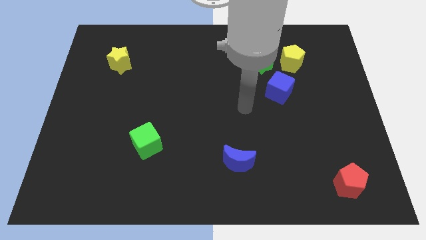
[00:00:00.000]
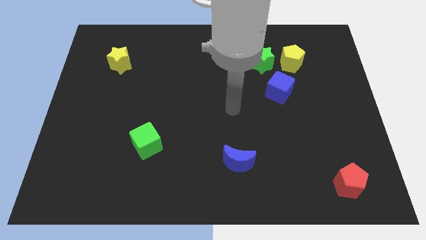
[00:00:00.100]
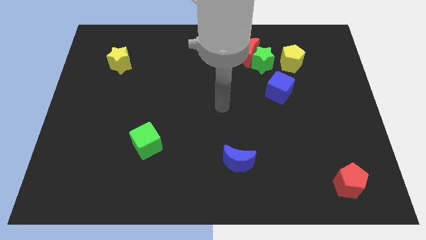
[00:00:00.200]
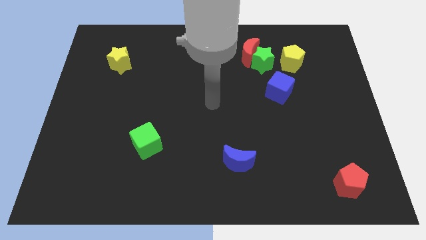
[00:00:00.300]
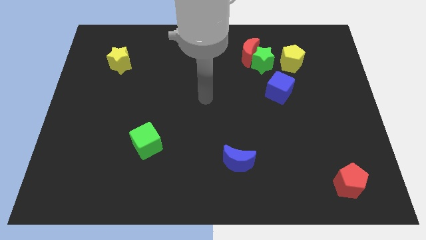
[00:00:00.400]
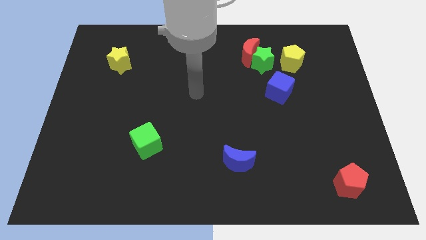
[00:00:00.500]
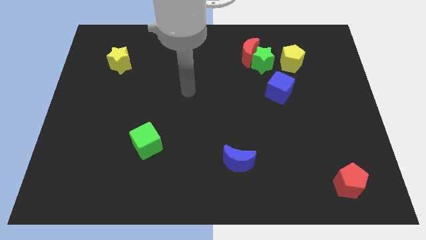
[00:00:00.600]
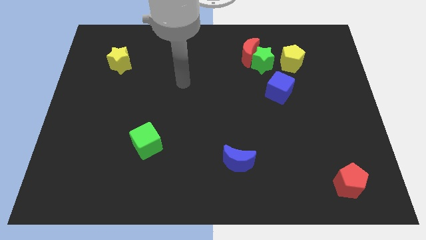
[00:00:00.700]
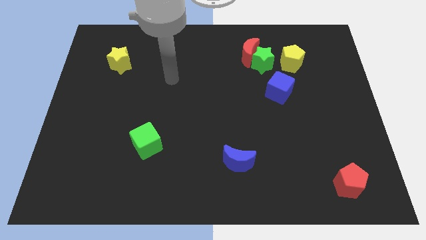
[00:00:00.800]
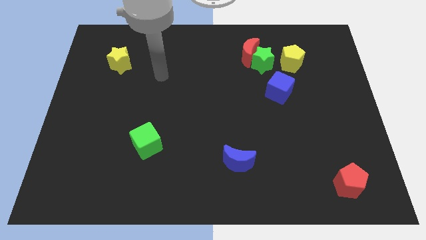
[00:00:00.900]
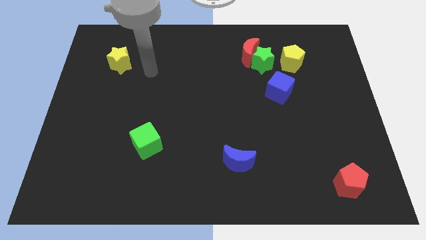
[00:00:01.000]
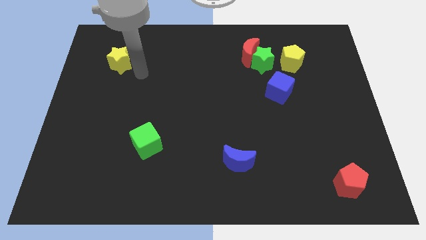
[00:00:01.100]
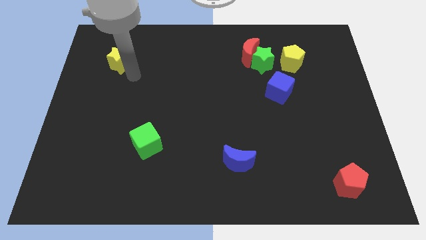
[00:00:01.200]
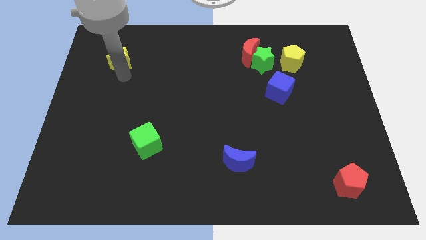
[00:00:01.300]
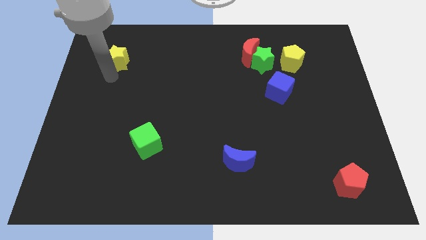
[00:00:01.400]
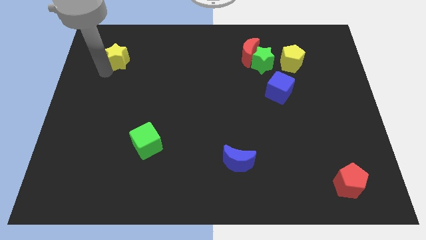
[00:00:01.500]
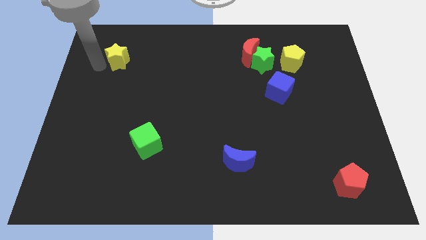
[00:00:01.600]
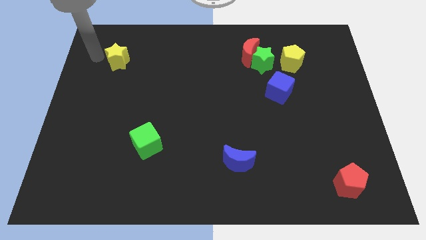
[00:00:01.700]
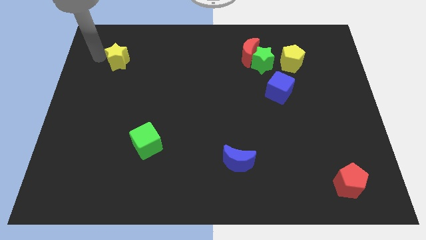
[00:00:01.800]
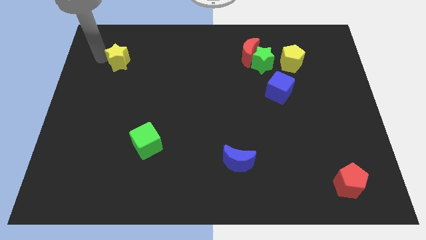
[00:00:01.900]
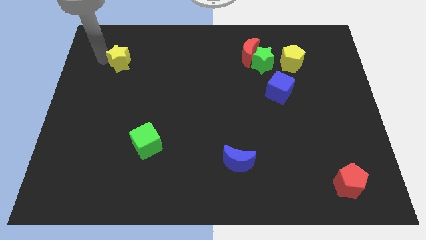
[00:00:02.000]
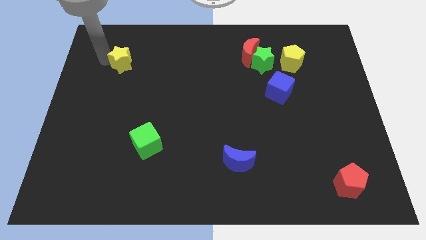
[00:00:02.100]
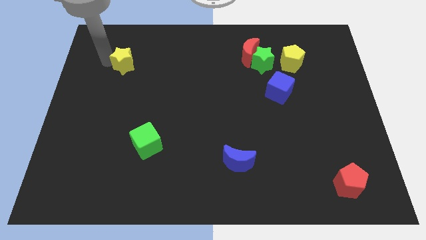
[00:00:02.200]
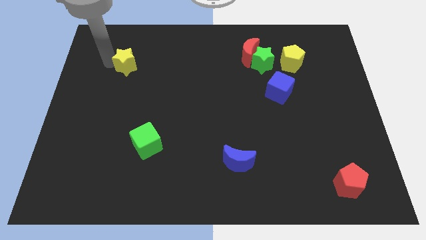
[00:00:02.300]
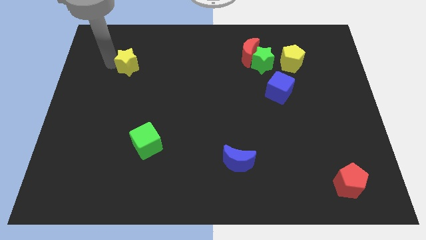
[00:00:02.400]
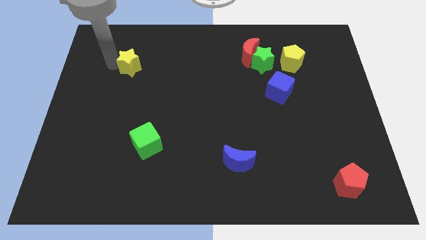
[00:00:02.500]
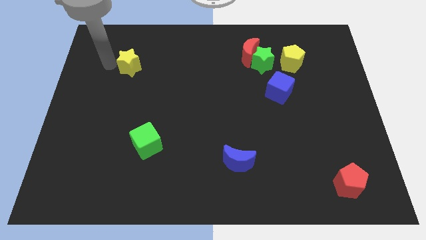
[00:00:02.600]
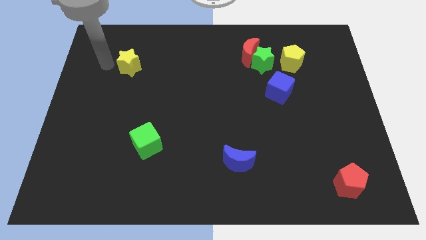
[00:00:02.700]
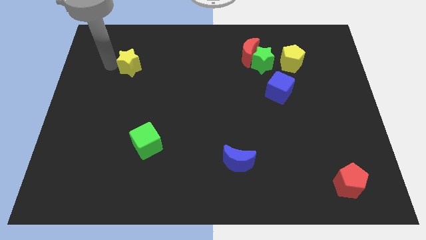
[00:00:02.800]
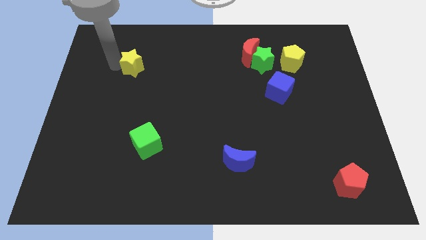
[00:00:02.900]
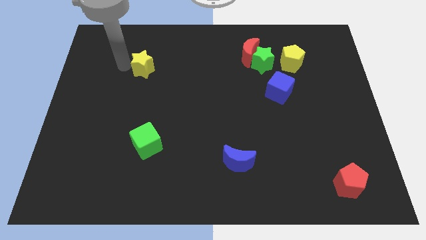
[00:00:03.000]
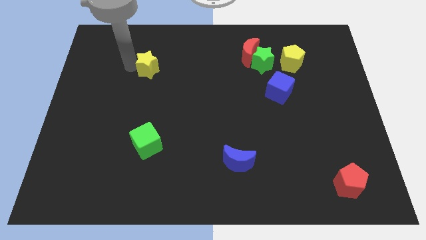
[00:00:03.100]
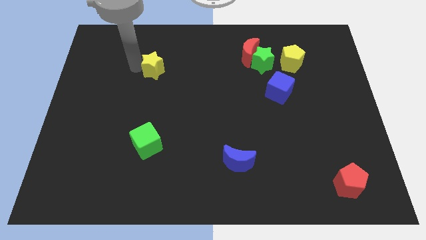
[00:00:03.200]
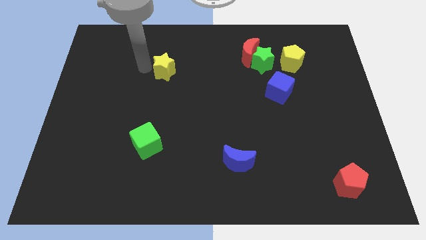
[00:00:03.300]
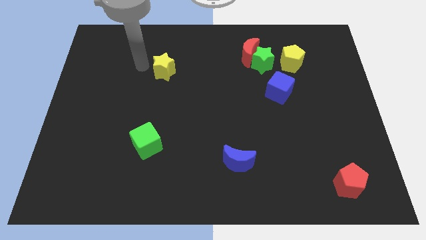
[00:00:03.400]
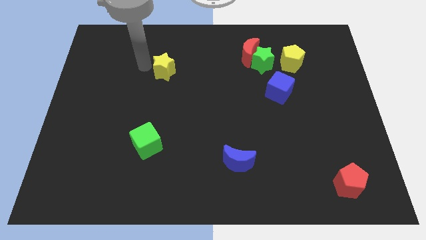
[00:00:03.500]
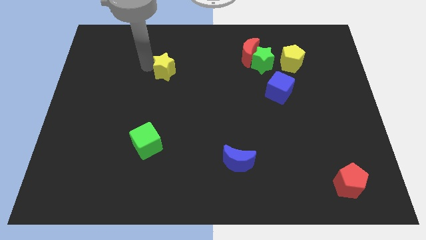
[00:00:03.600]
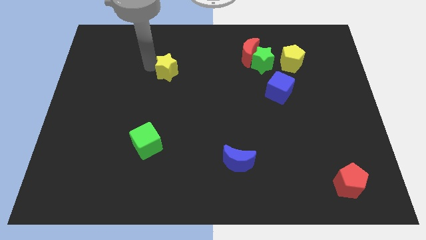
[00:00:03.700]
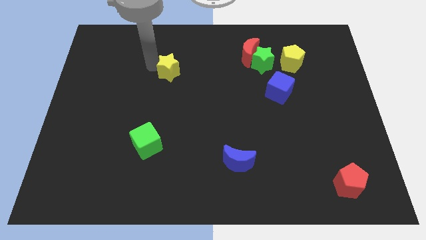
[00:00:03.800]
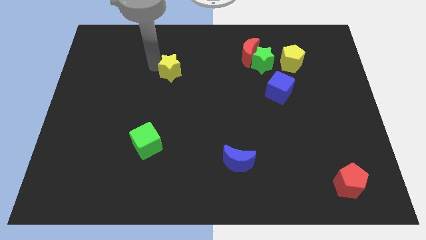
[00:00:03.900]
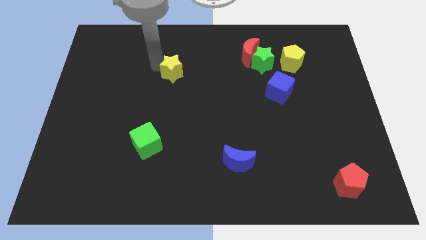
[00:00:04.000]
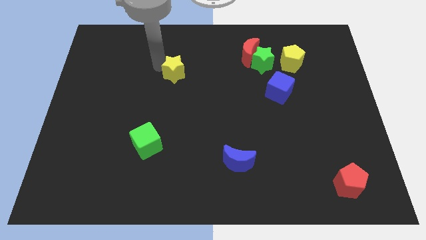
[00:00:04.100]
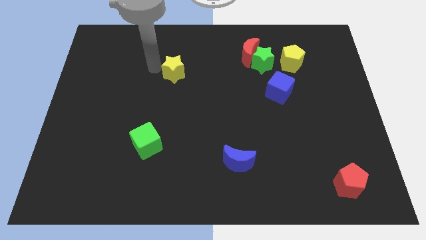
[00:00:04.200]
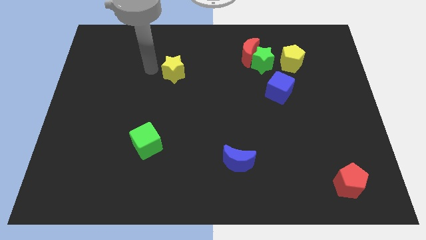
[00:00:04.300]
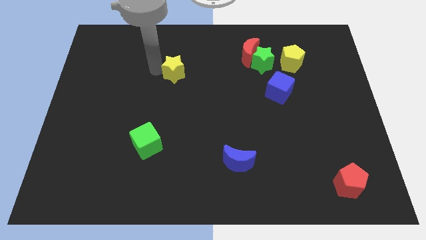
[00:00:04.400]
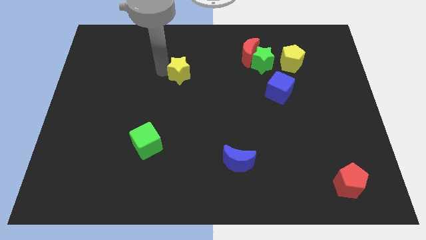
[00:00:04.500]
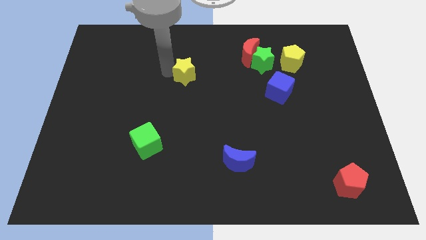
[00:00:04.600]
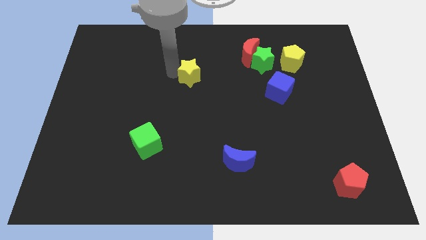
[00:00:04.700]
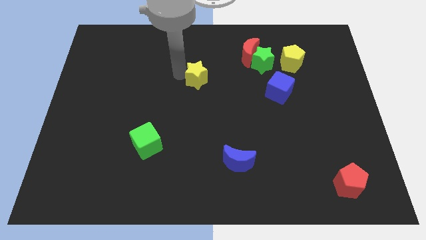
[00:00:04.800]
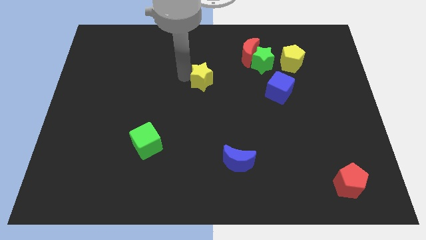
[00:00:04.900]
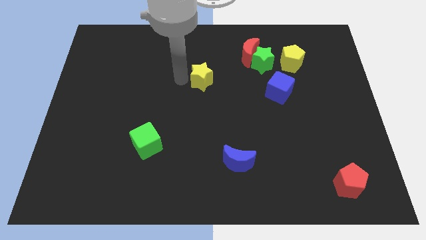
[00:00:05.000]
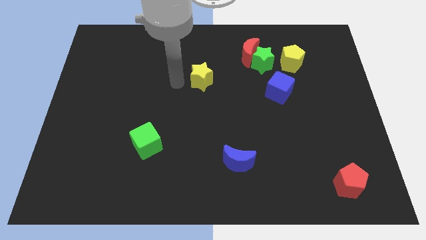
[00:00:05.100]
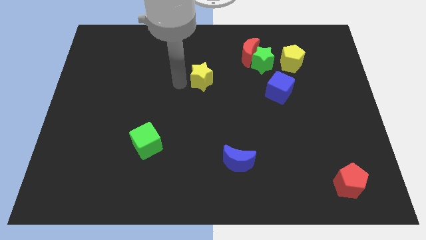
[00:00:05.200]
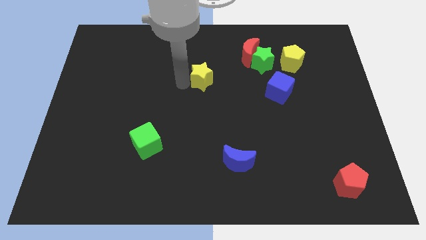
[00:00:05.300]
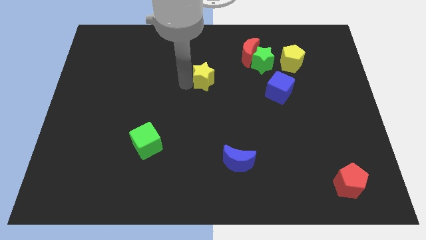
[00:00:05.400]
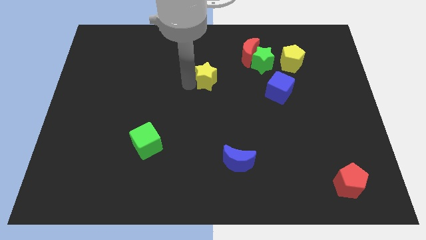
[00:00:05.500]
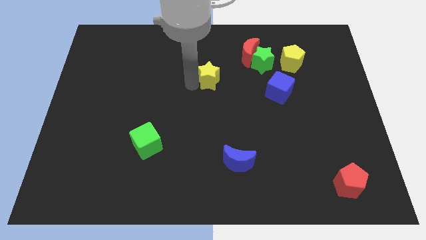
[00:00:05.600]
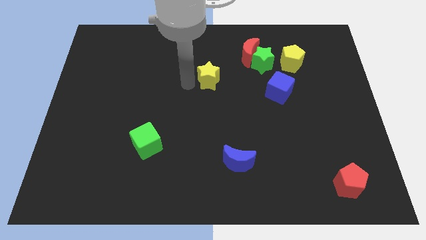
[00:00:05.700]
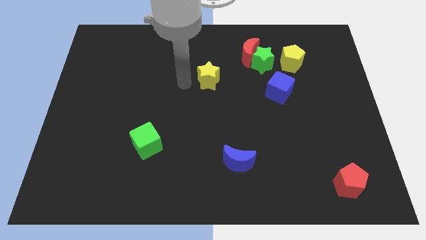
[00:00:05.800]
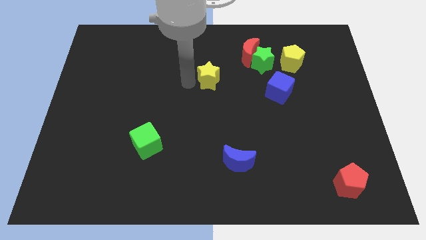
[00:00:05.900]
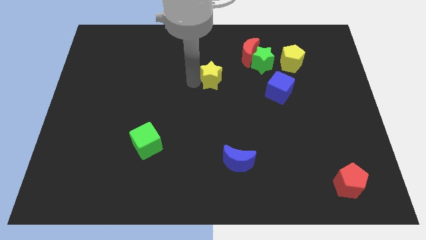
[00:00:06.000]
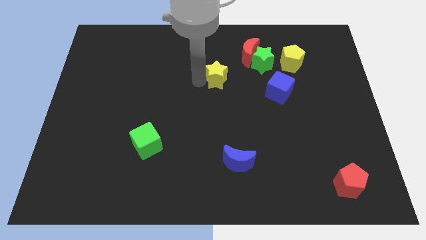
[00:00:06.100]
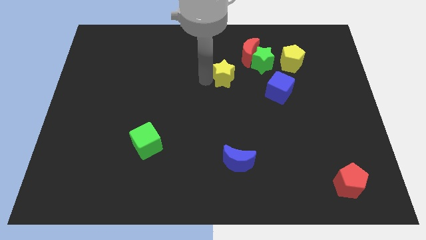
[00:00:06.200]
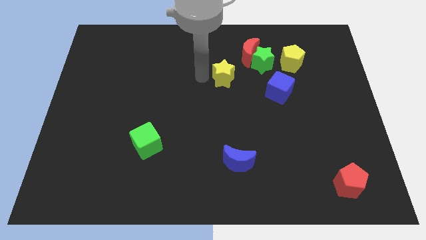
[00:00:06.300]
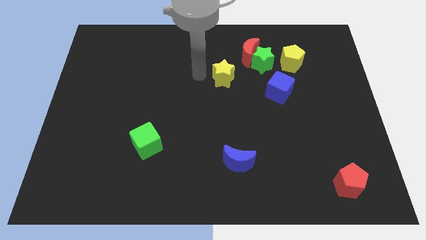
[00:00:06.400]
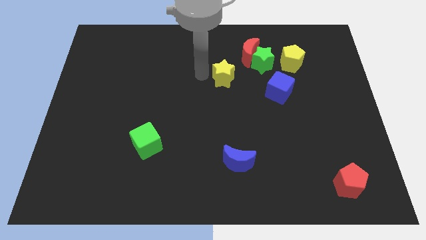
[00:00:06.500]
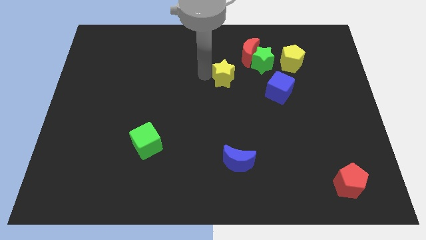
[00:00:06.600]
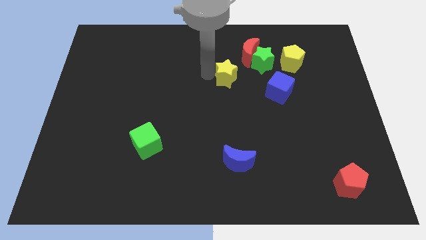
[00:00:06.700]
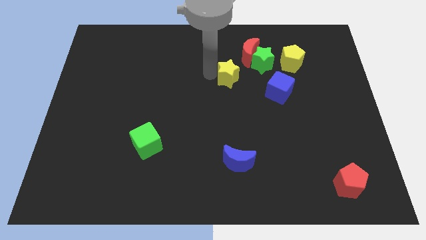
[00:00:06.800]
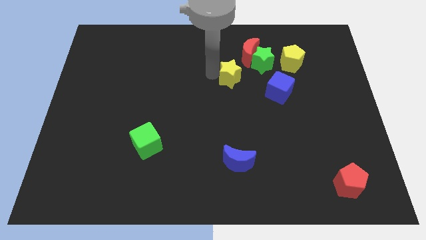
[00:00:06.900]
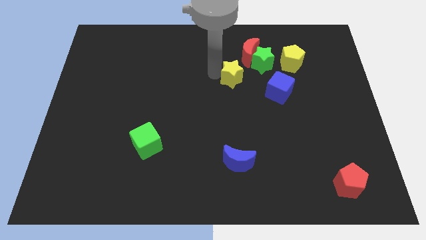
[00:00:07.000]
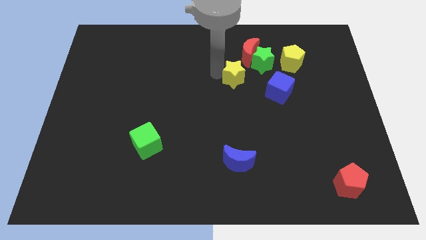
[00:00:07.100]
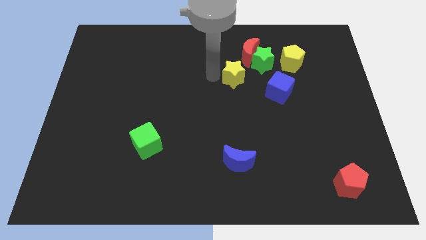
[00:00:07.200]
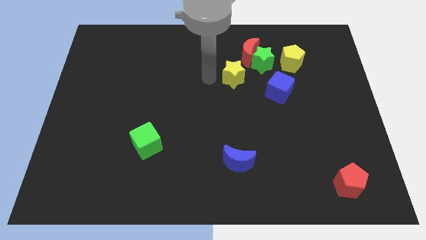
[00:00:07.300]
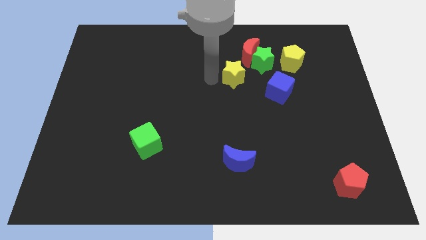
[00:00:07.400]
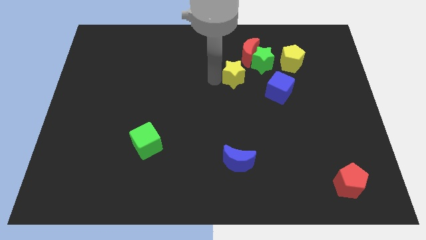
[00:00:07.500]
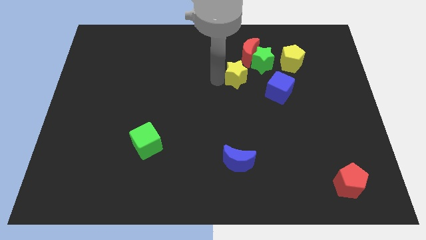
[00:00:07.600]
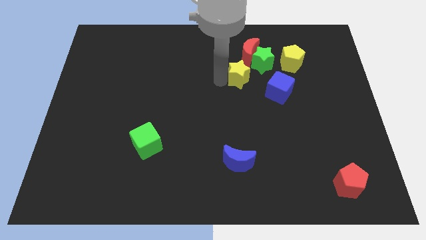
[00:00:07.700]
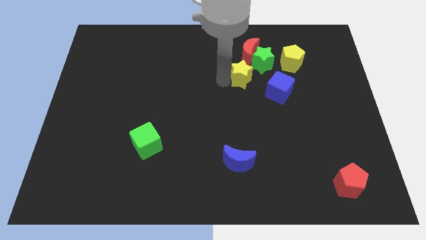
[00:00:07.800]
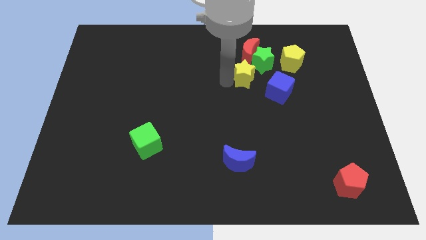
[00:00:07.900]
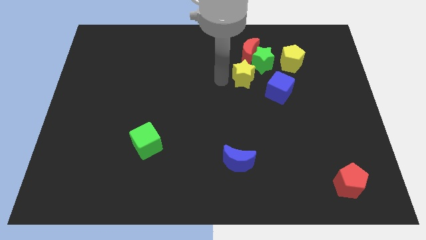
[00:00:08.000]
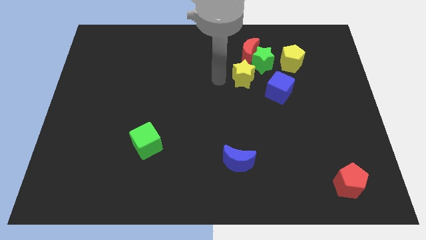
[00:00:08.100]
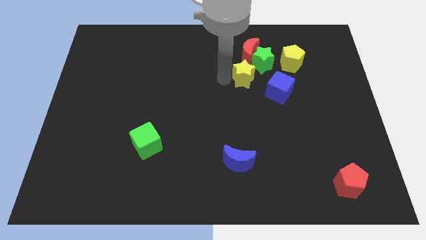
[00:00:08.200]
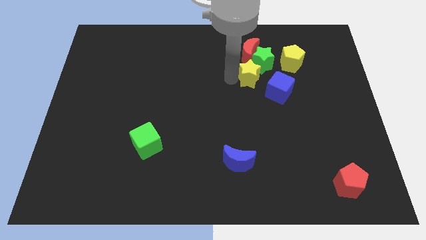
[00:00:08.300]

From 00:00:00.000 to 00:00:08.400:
move the yellow star towards the green star
